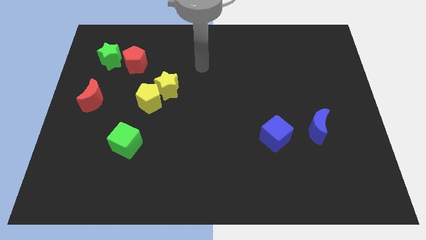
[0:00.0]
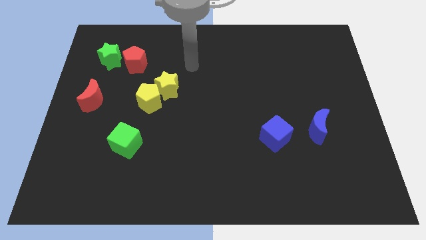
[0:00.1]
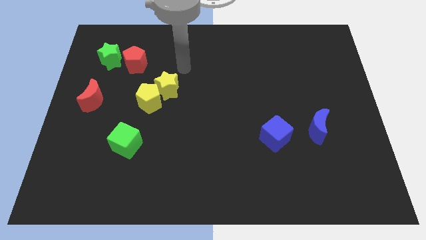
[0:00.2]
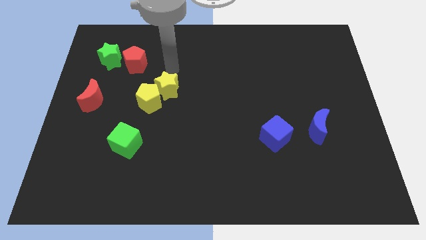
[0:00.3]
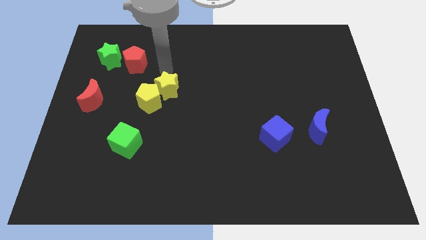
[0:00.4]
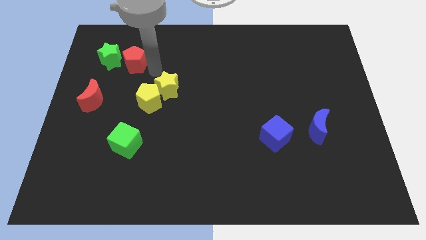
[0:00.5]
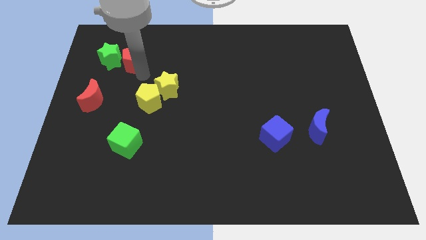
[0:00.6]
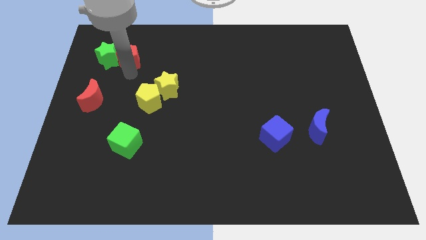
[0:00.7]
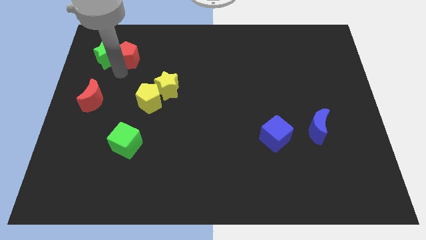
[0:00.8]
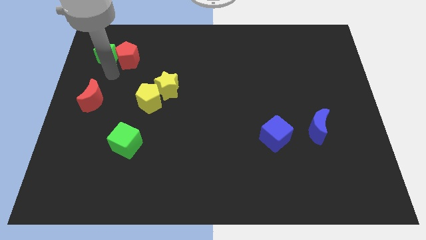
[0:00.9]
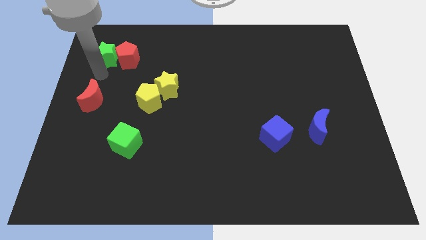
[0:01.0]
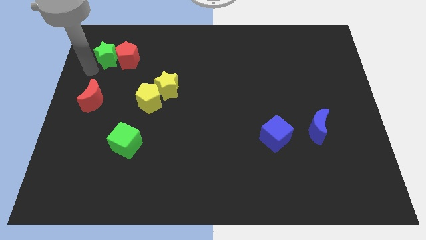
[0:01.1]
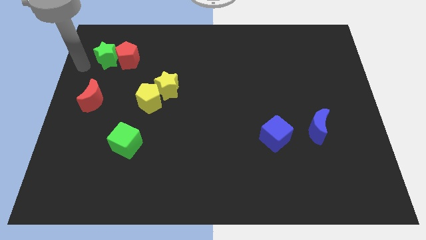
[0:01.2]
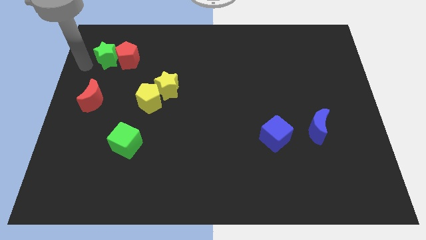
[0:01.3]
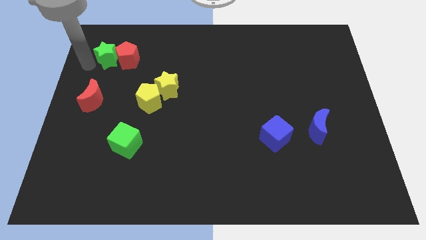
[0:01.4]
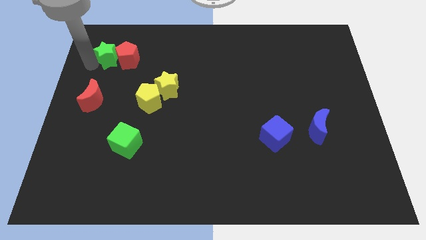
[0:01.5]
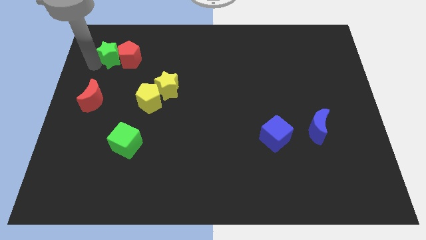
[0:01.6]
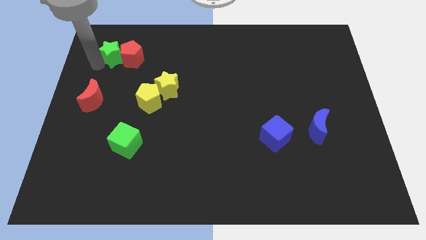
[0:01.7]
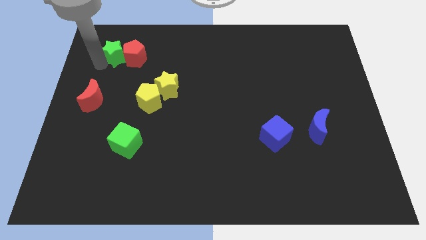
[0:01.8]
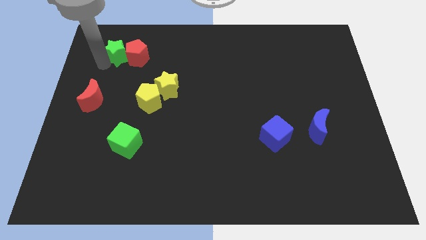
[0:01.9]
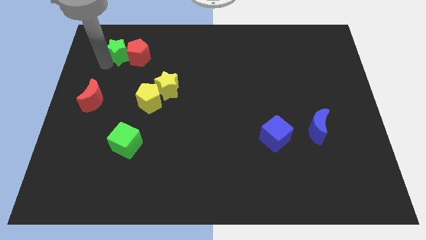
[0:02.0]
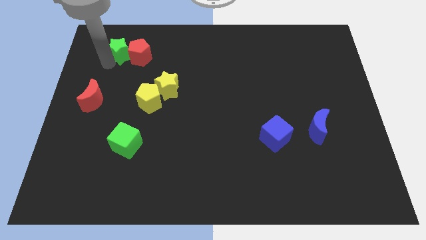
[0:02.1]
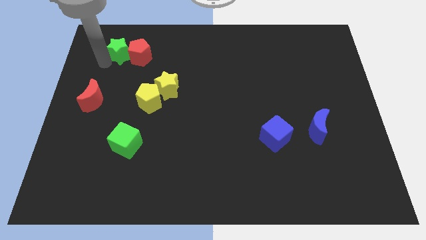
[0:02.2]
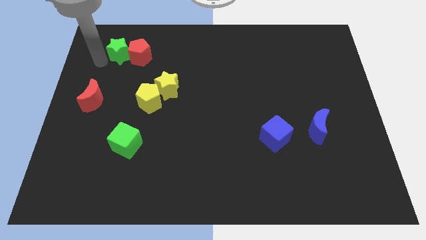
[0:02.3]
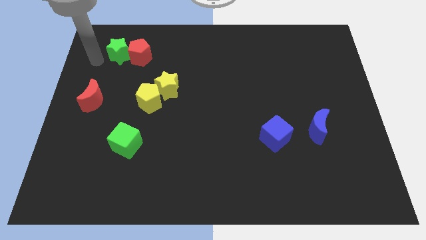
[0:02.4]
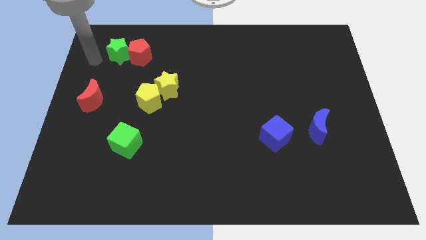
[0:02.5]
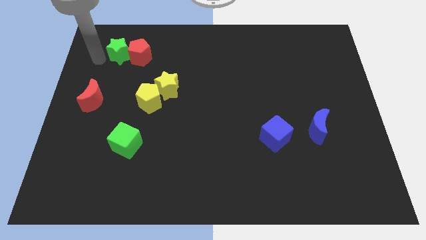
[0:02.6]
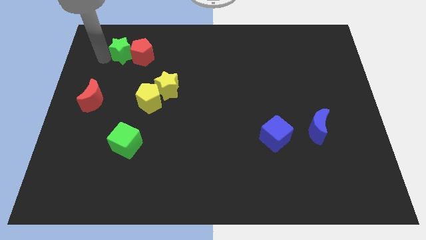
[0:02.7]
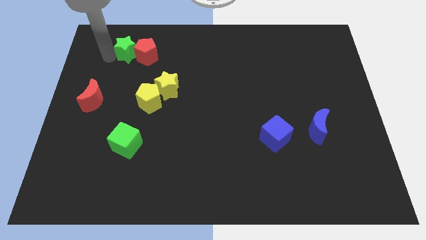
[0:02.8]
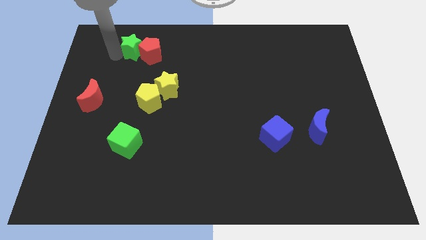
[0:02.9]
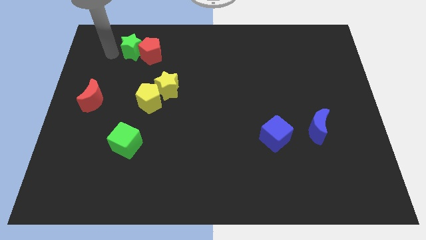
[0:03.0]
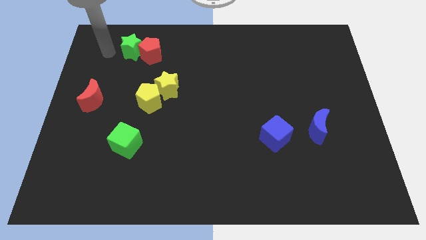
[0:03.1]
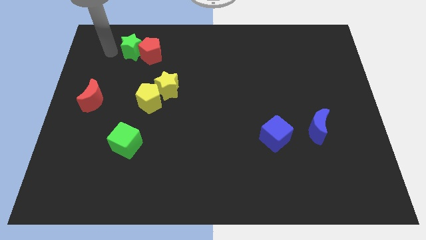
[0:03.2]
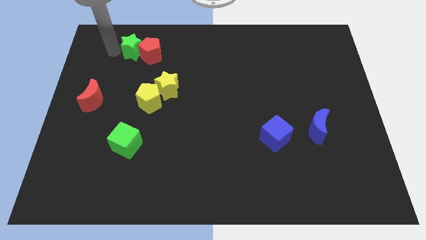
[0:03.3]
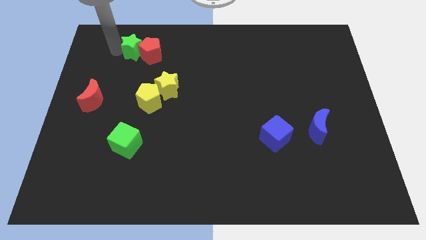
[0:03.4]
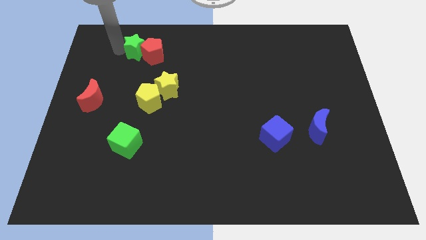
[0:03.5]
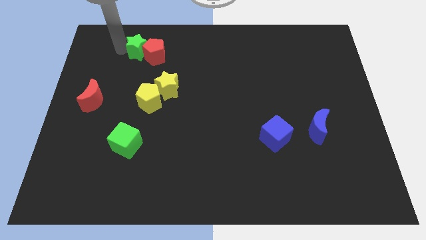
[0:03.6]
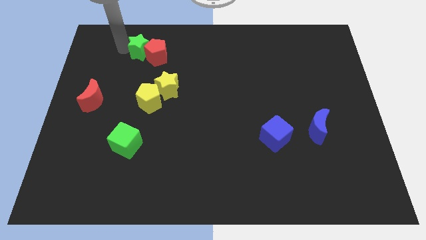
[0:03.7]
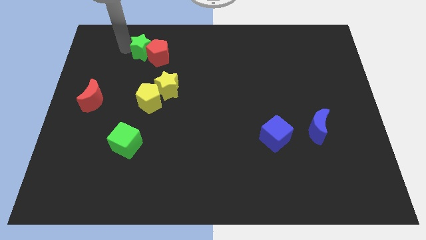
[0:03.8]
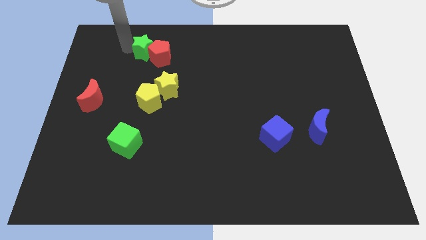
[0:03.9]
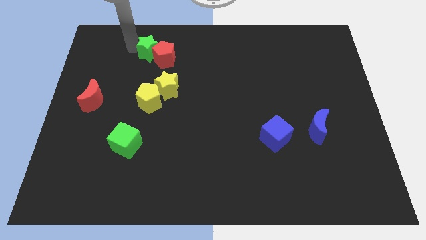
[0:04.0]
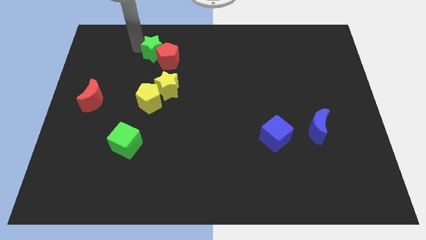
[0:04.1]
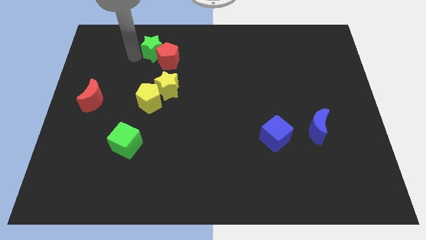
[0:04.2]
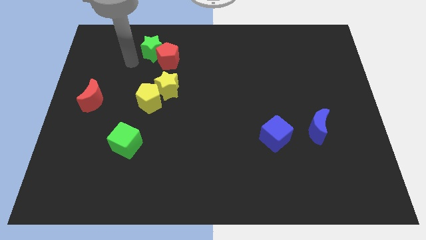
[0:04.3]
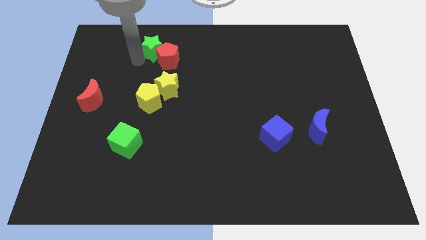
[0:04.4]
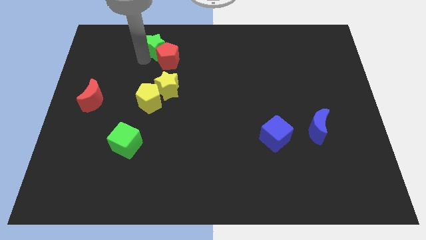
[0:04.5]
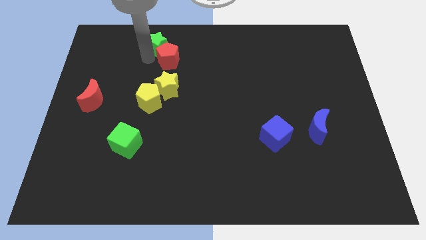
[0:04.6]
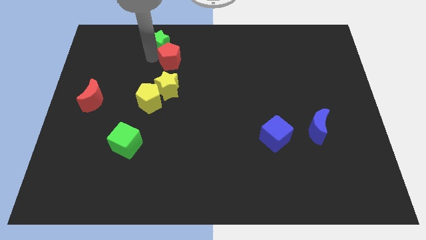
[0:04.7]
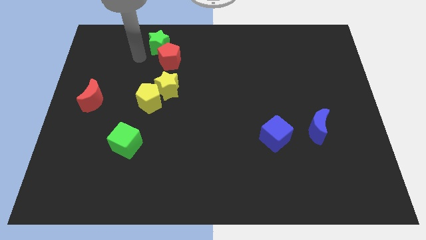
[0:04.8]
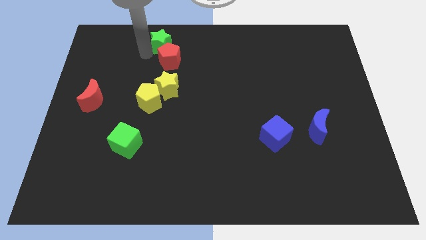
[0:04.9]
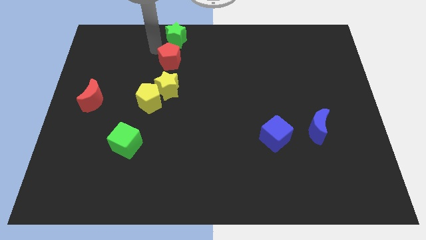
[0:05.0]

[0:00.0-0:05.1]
move the green star to the top
